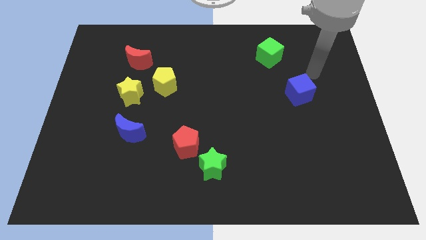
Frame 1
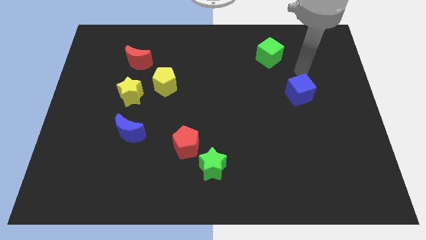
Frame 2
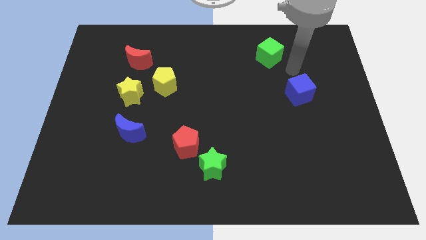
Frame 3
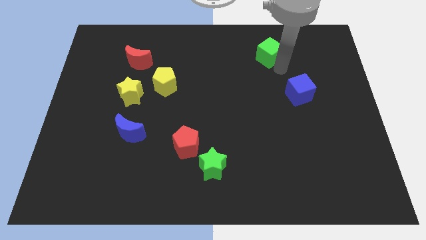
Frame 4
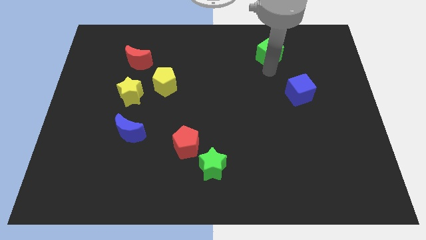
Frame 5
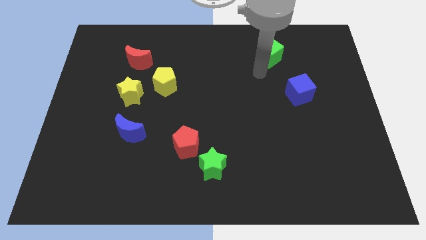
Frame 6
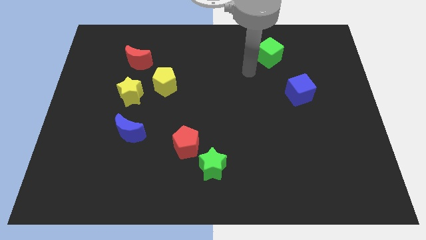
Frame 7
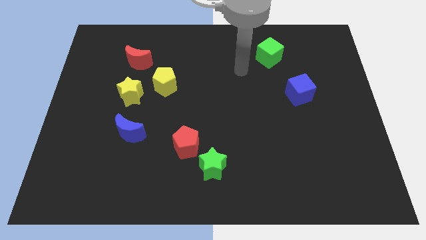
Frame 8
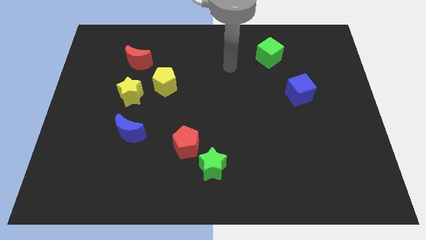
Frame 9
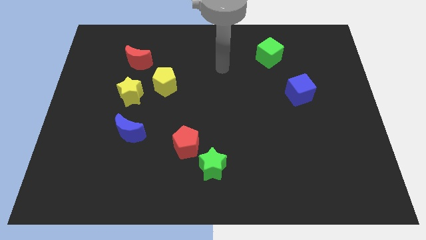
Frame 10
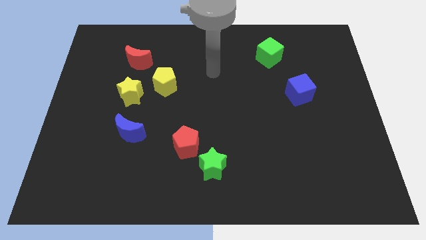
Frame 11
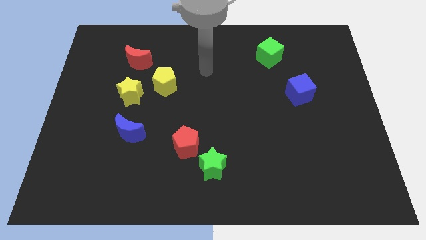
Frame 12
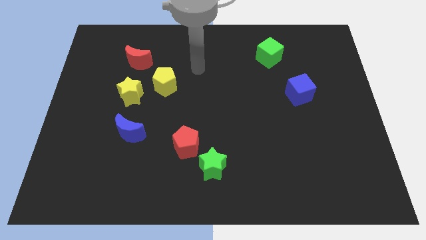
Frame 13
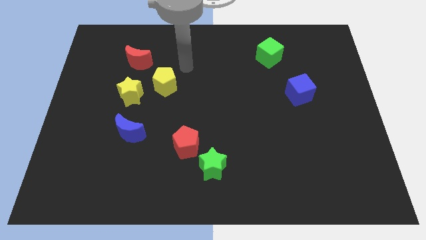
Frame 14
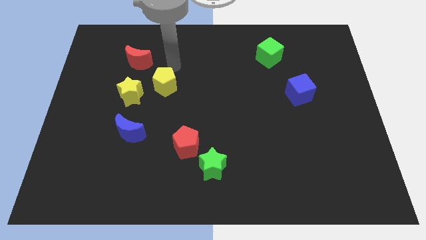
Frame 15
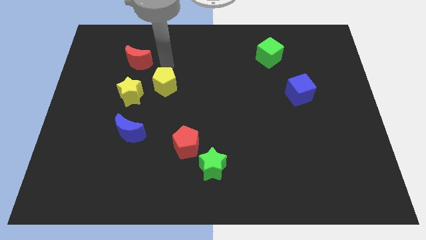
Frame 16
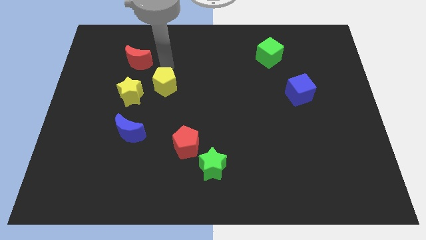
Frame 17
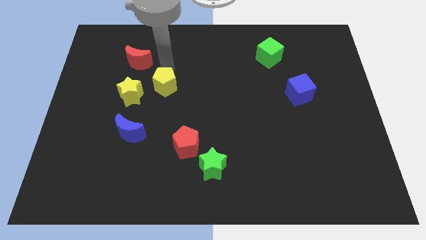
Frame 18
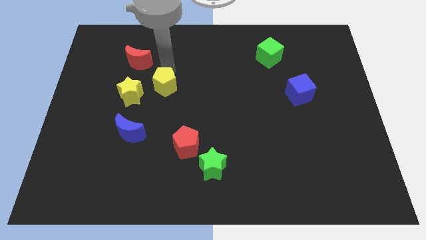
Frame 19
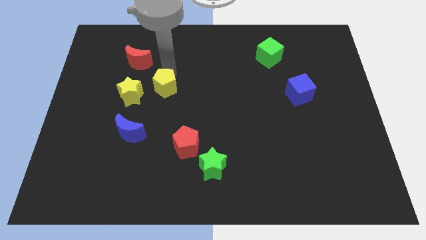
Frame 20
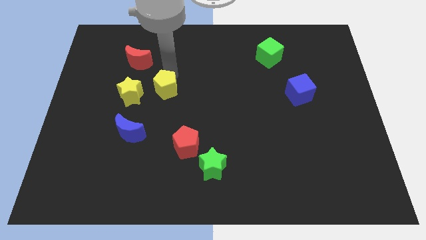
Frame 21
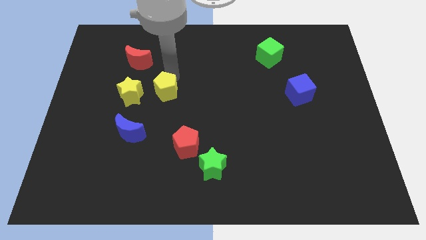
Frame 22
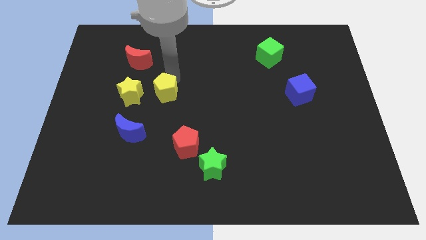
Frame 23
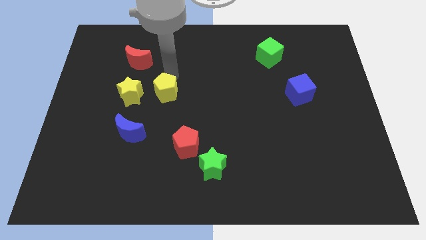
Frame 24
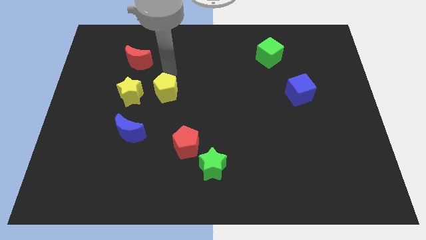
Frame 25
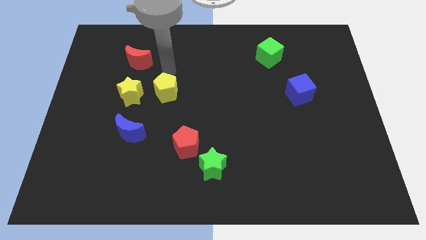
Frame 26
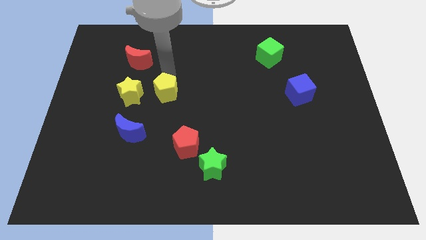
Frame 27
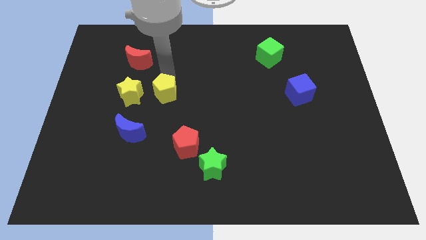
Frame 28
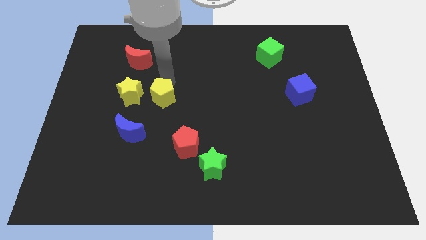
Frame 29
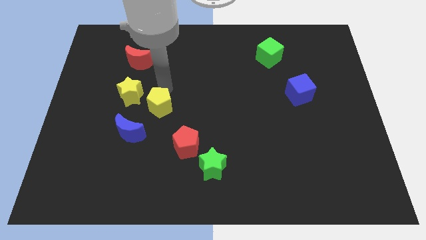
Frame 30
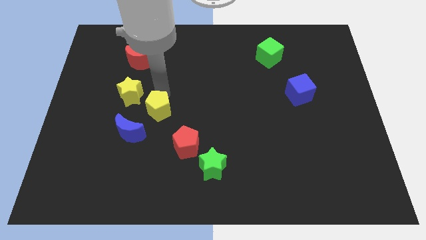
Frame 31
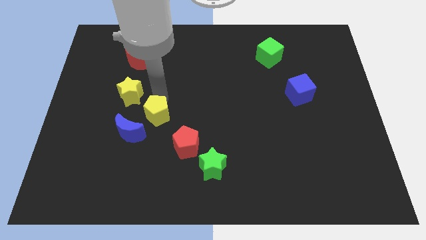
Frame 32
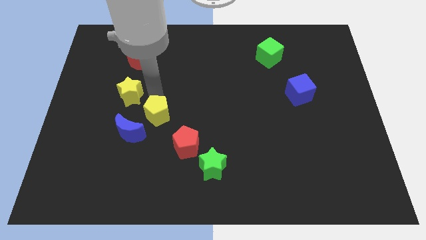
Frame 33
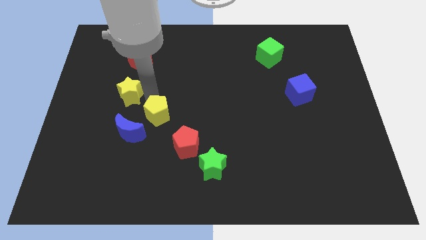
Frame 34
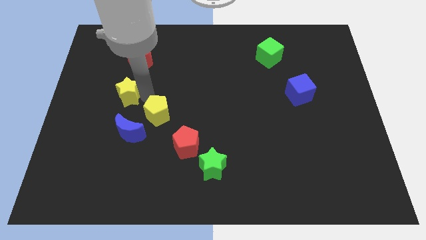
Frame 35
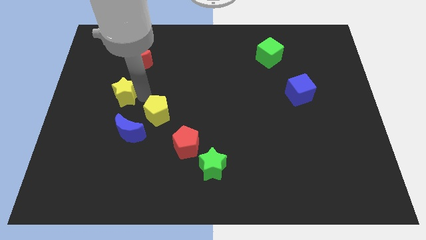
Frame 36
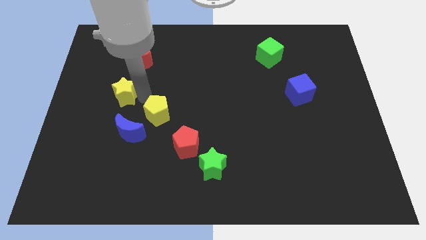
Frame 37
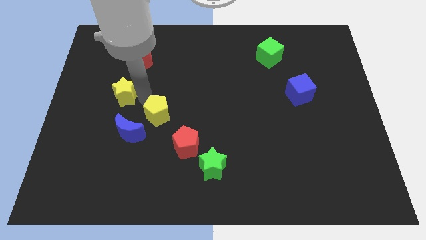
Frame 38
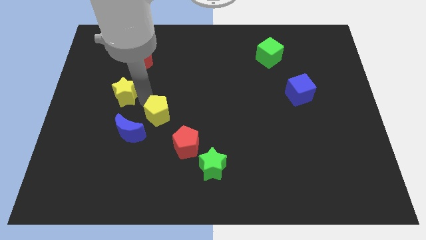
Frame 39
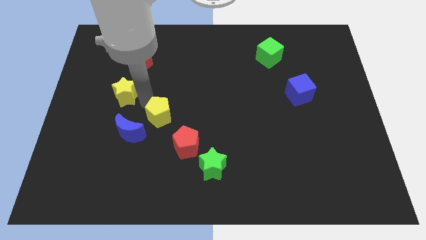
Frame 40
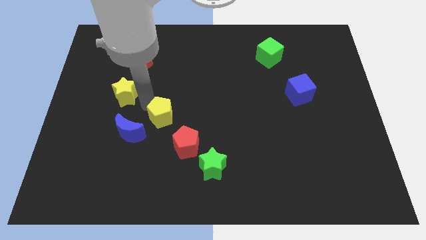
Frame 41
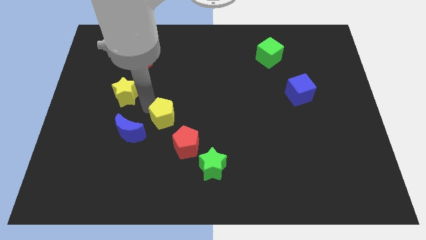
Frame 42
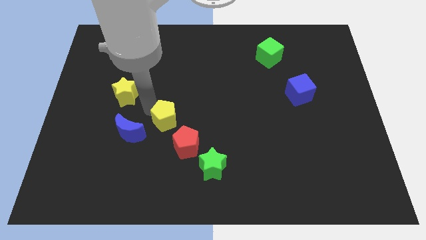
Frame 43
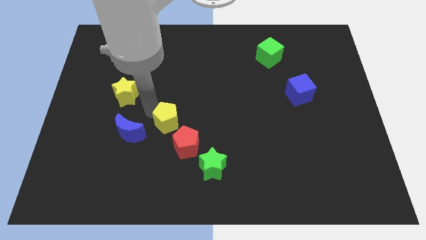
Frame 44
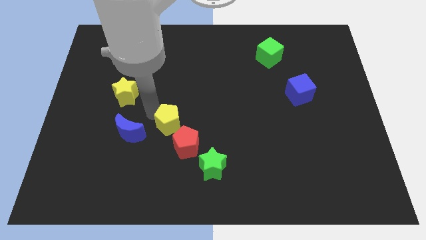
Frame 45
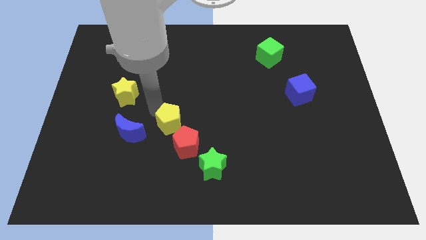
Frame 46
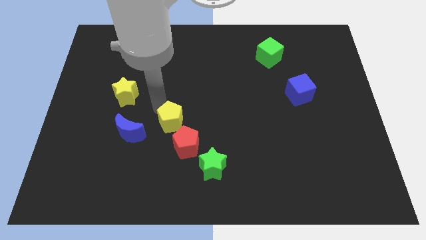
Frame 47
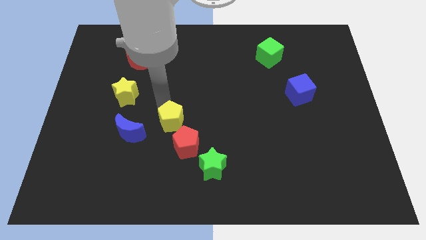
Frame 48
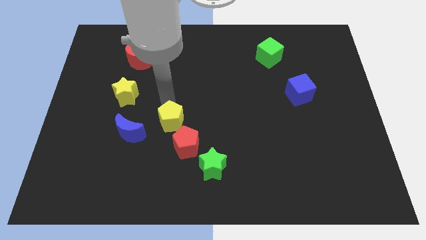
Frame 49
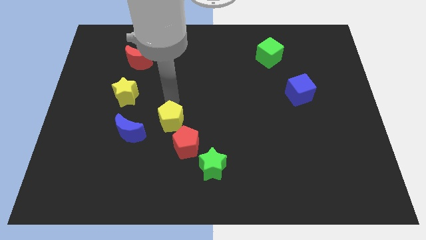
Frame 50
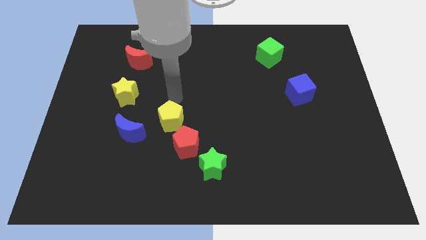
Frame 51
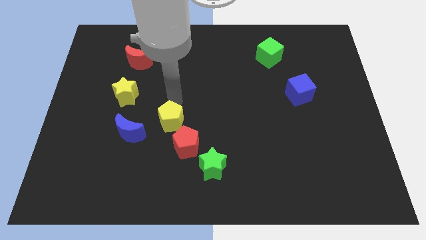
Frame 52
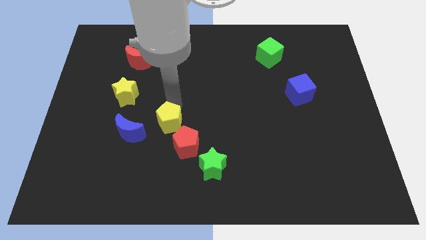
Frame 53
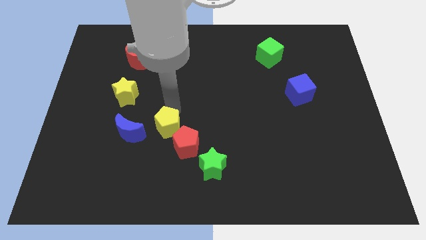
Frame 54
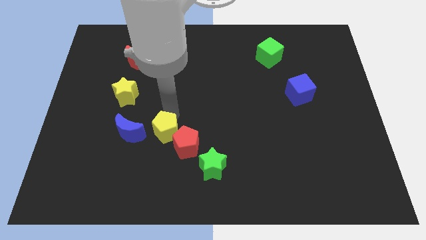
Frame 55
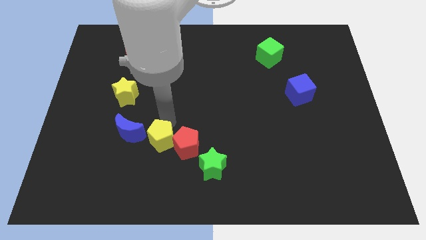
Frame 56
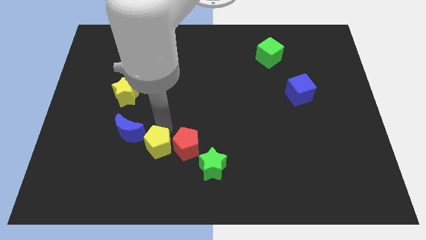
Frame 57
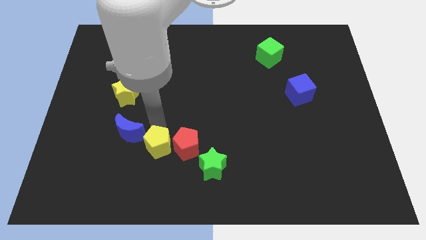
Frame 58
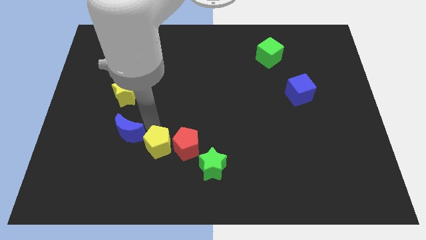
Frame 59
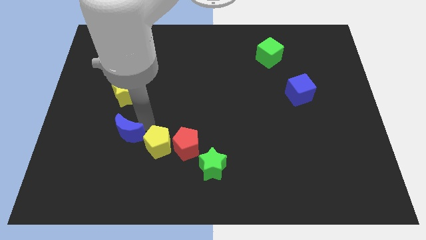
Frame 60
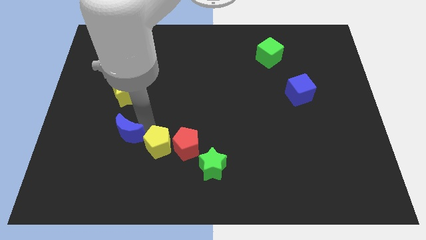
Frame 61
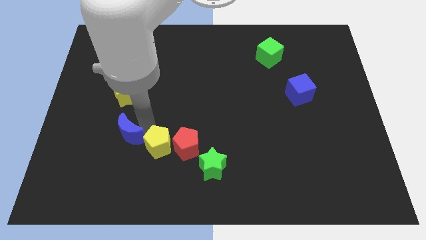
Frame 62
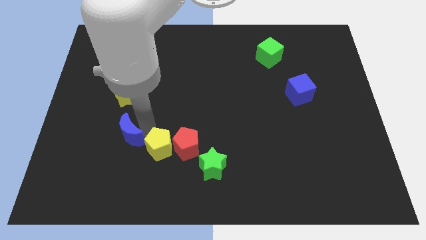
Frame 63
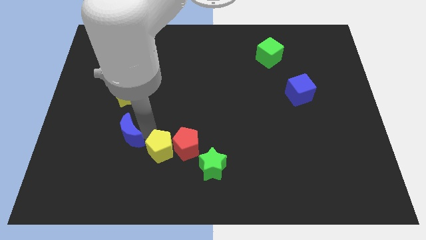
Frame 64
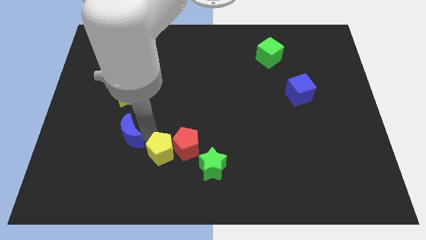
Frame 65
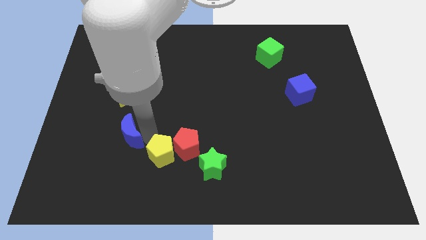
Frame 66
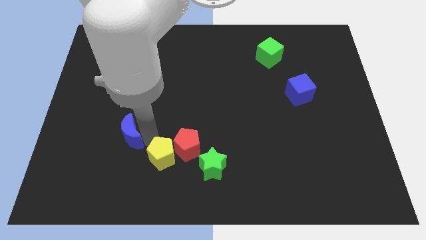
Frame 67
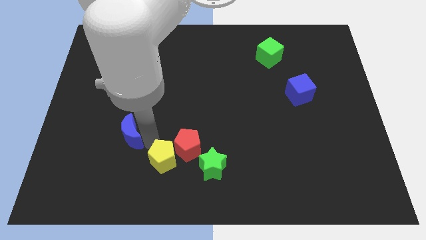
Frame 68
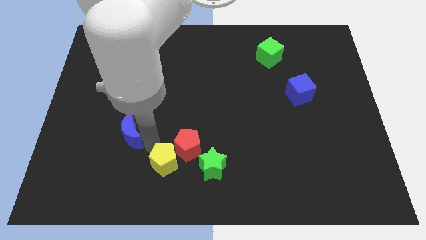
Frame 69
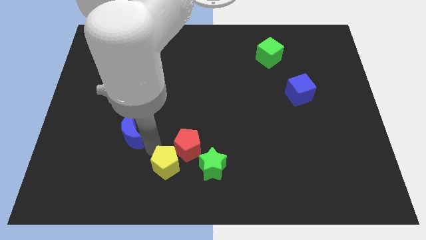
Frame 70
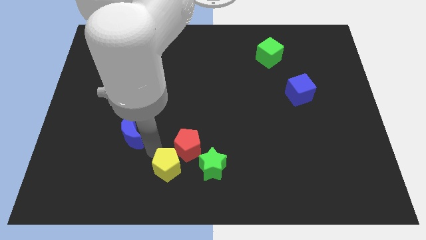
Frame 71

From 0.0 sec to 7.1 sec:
put the yellow pentagon to the bottom side
